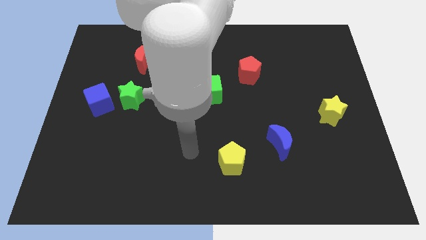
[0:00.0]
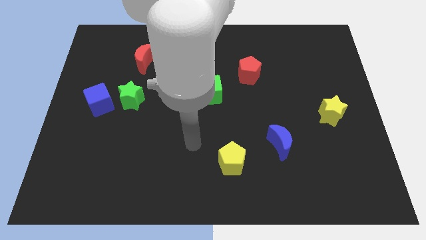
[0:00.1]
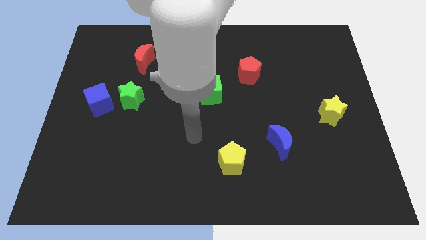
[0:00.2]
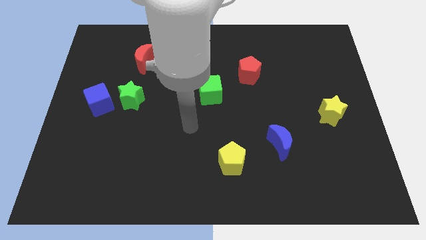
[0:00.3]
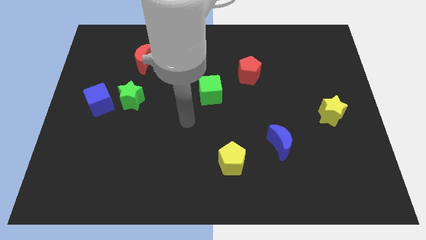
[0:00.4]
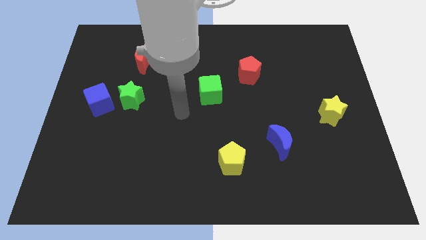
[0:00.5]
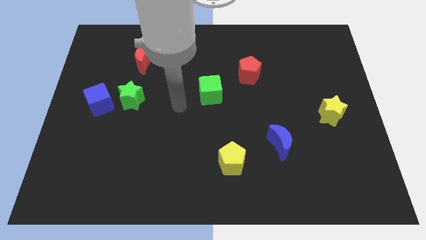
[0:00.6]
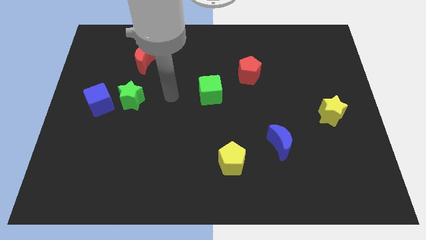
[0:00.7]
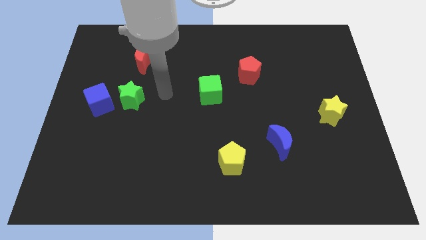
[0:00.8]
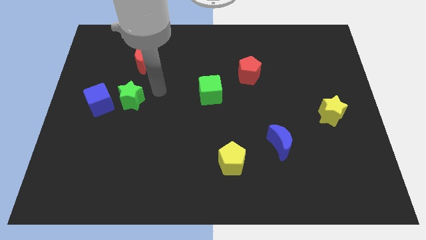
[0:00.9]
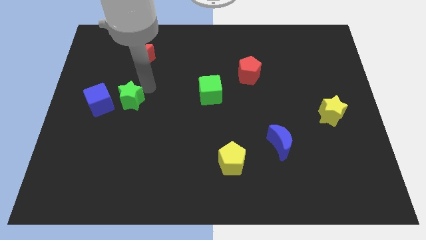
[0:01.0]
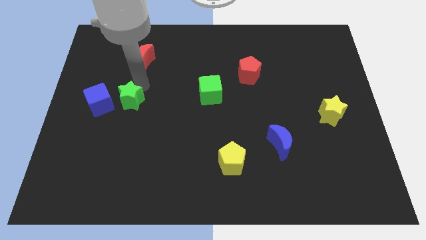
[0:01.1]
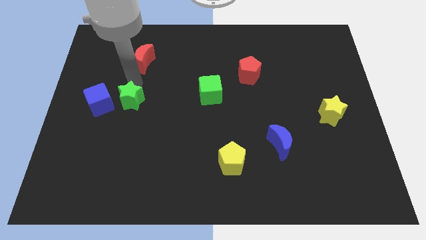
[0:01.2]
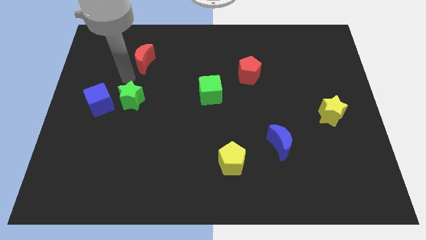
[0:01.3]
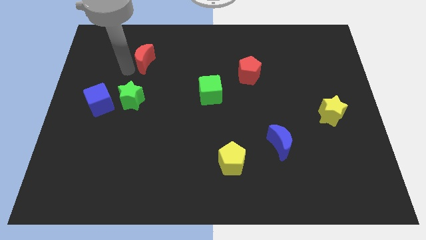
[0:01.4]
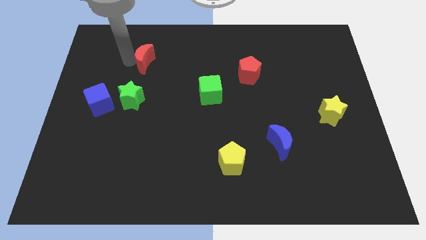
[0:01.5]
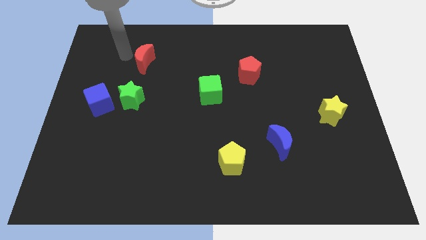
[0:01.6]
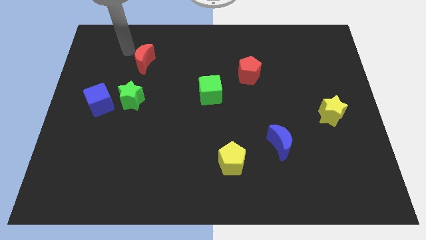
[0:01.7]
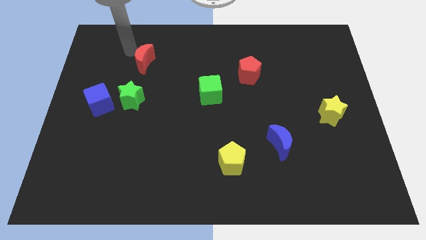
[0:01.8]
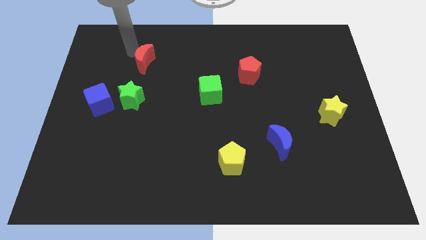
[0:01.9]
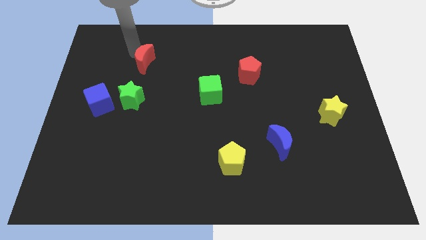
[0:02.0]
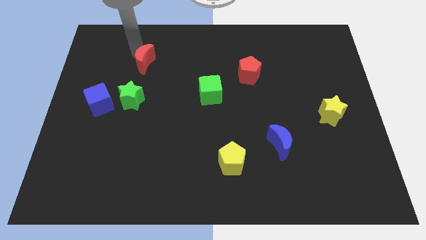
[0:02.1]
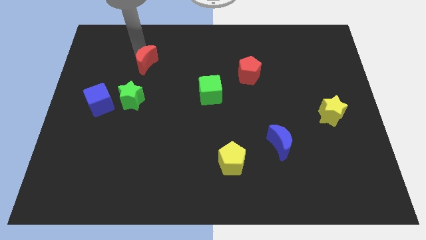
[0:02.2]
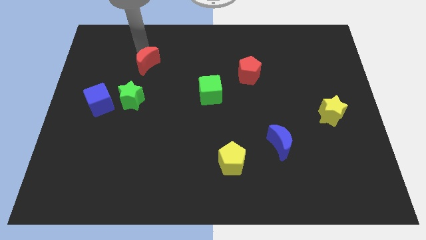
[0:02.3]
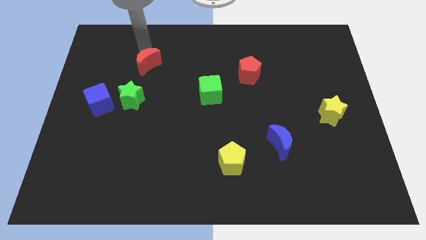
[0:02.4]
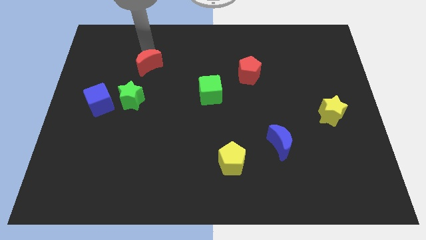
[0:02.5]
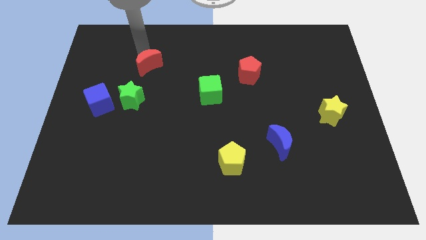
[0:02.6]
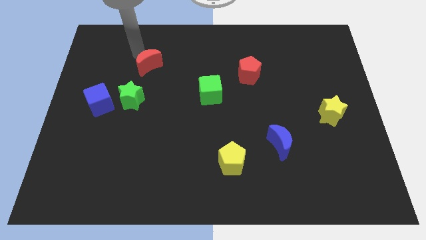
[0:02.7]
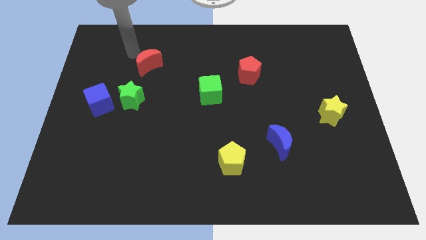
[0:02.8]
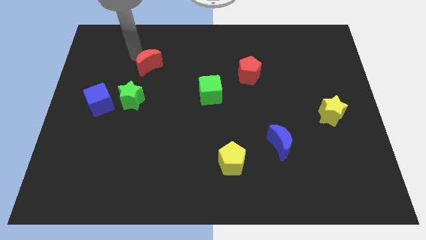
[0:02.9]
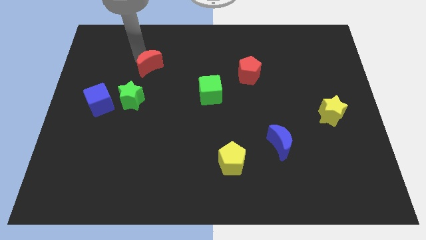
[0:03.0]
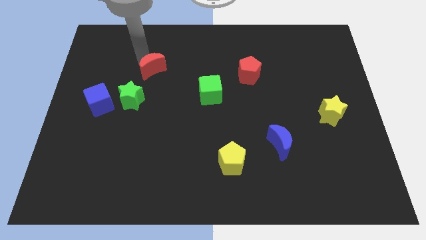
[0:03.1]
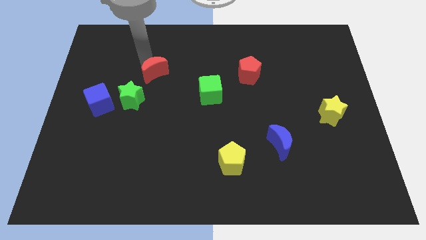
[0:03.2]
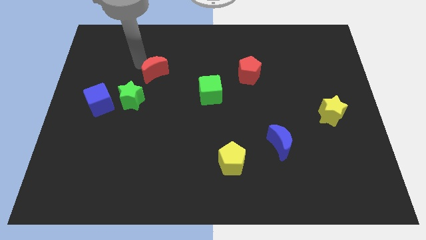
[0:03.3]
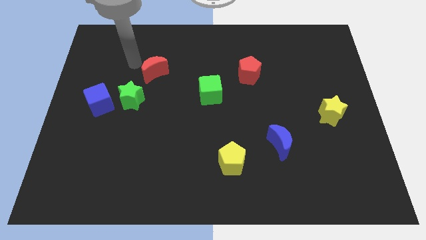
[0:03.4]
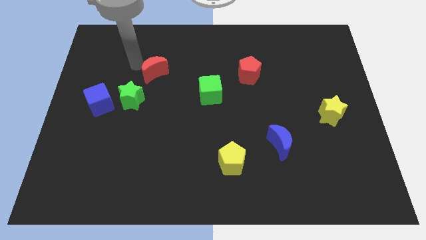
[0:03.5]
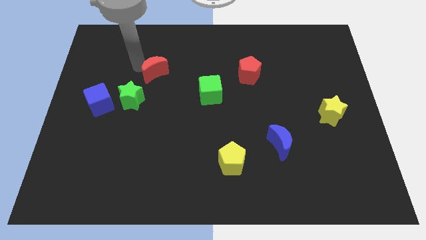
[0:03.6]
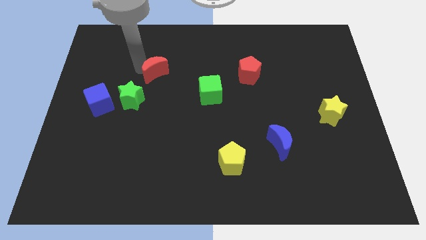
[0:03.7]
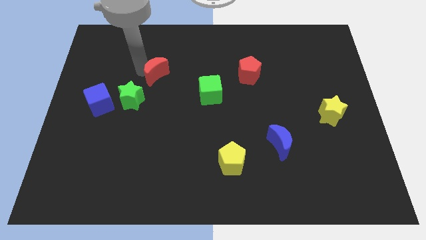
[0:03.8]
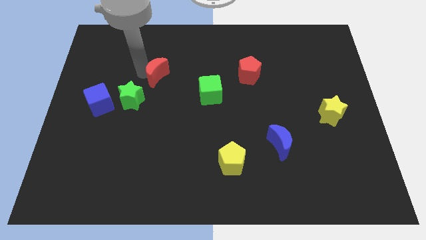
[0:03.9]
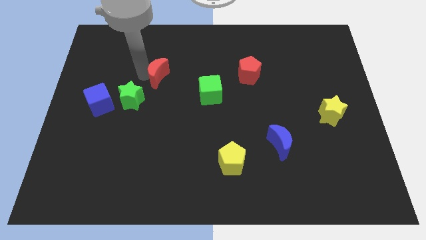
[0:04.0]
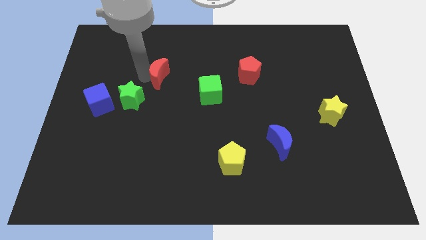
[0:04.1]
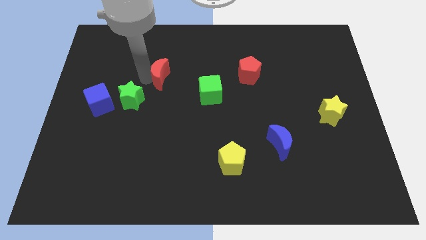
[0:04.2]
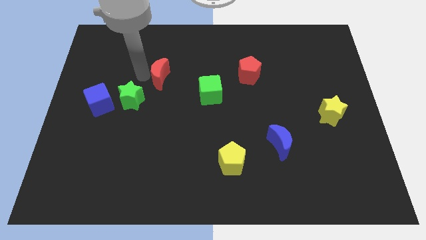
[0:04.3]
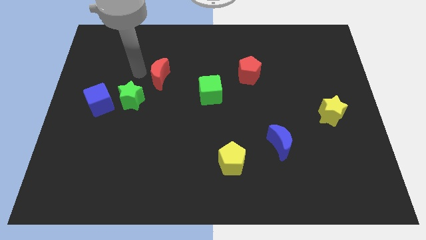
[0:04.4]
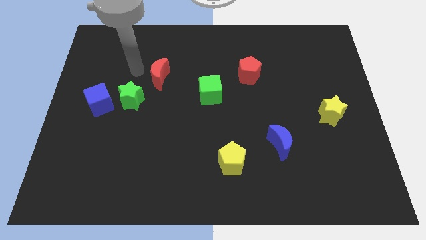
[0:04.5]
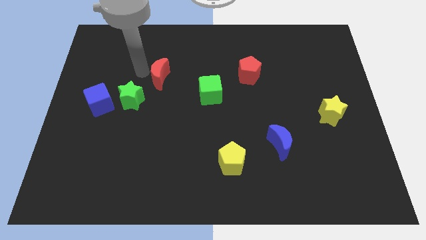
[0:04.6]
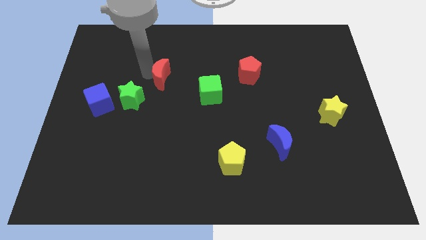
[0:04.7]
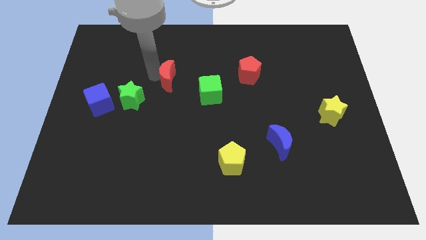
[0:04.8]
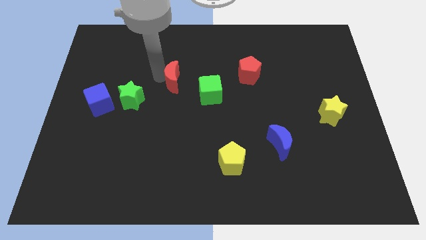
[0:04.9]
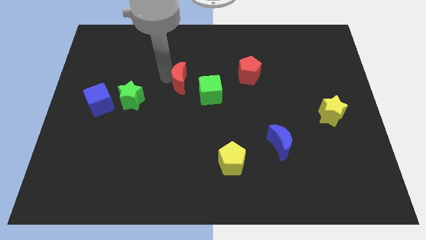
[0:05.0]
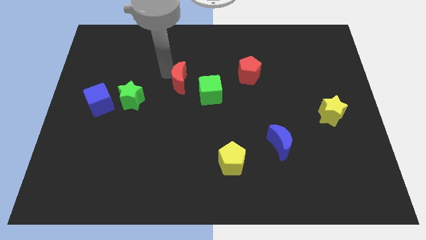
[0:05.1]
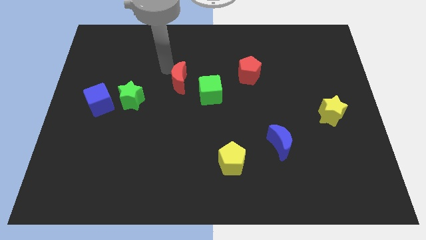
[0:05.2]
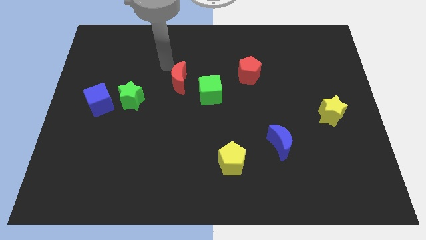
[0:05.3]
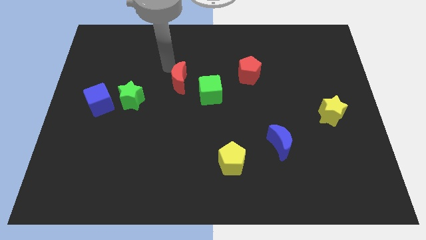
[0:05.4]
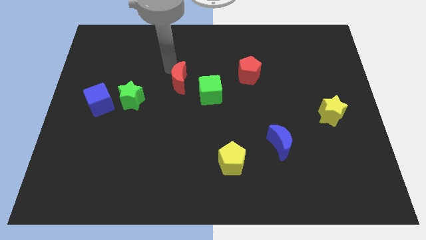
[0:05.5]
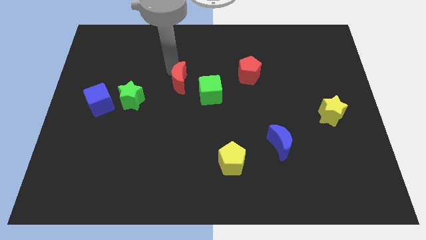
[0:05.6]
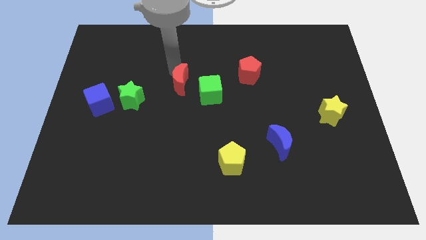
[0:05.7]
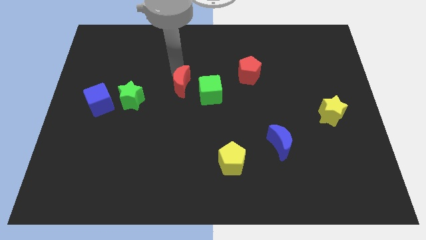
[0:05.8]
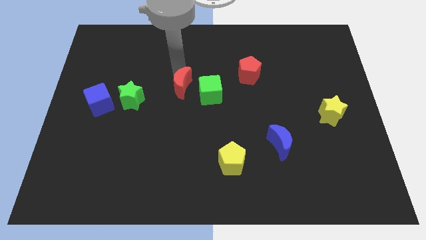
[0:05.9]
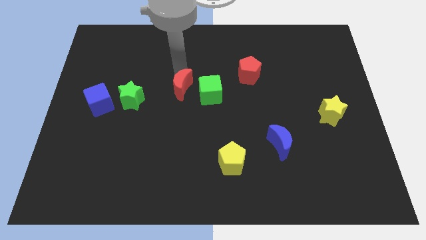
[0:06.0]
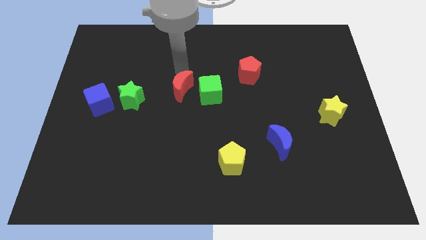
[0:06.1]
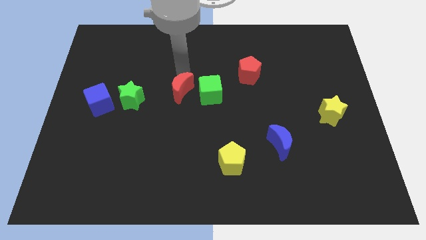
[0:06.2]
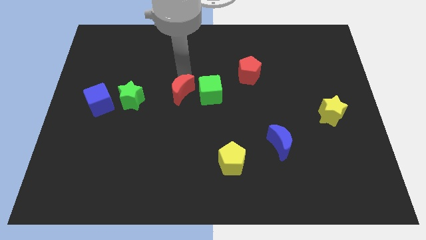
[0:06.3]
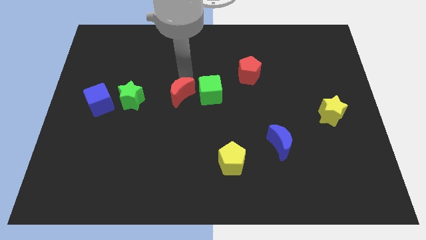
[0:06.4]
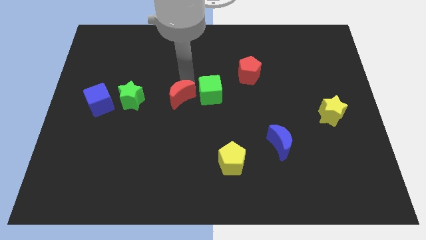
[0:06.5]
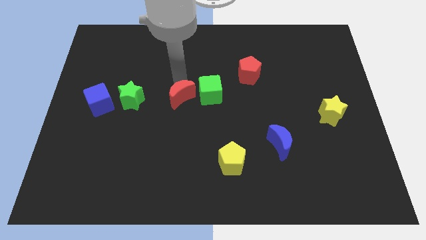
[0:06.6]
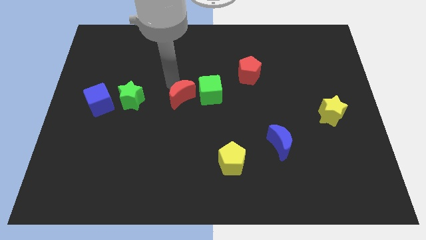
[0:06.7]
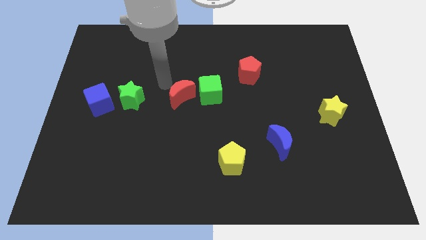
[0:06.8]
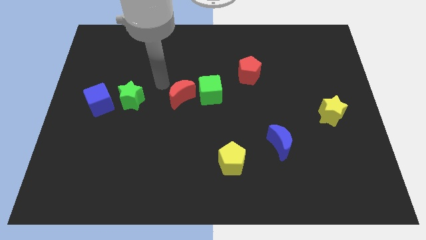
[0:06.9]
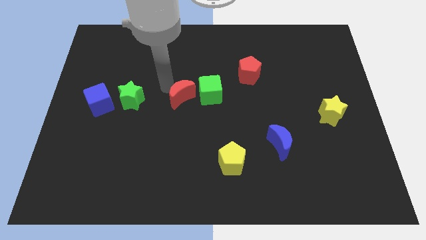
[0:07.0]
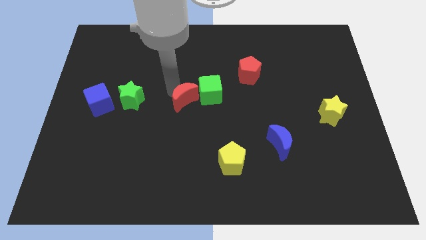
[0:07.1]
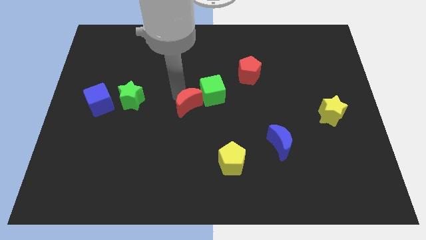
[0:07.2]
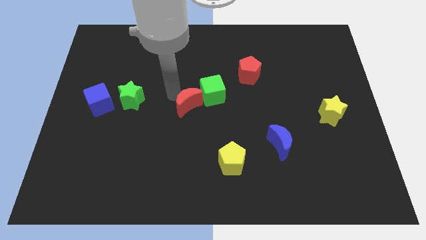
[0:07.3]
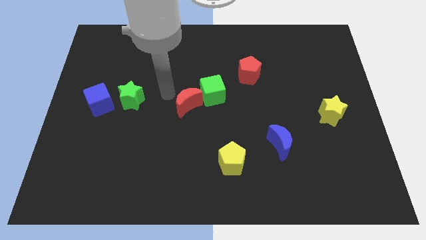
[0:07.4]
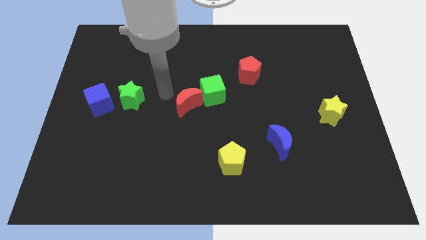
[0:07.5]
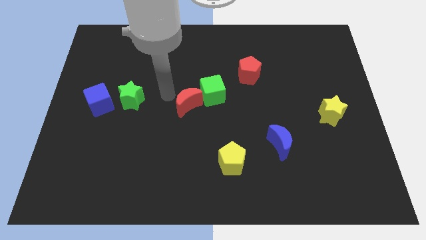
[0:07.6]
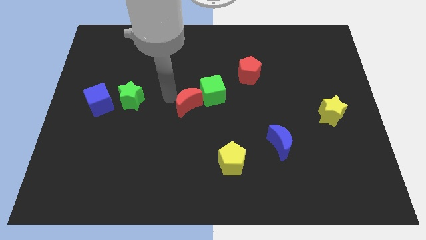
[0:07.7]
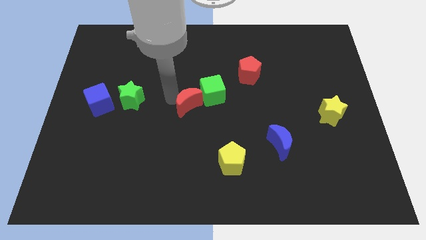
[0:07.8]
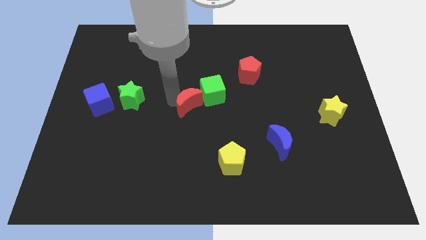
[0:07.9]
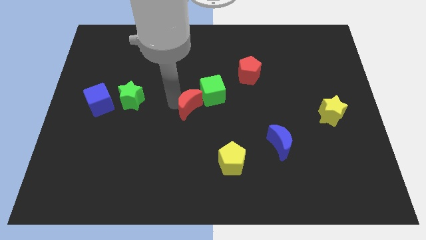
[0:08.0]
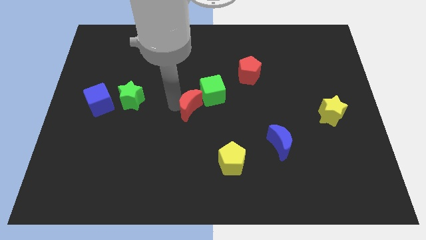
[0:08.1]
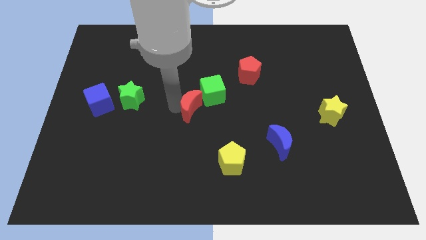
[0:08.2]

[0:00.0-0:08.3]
move the red moon down and to the right diagonally
